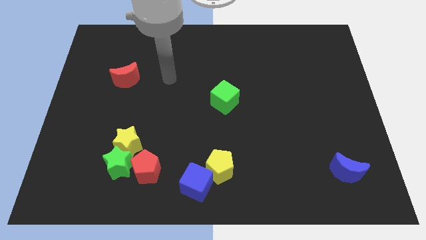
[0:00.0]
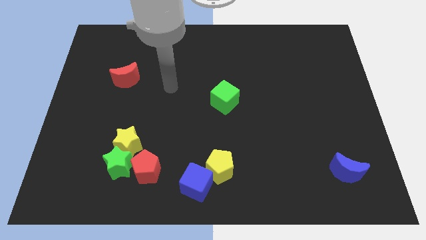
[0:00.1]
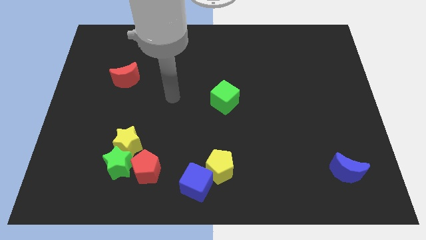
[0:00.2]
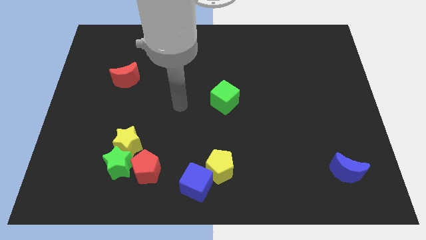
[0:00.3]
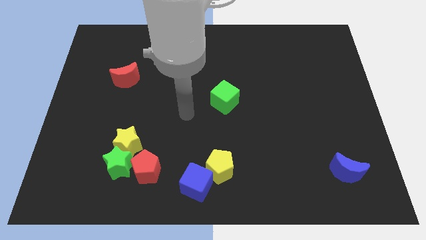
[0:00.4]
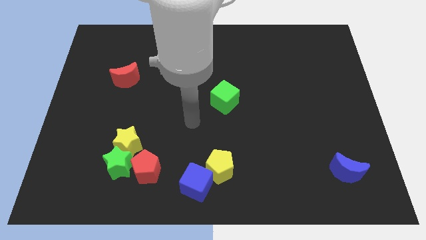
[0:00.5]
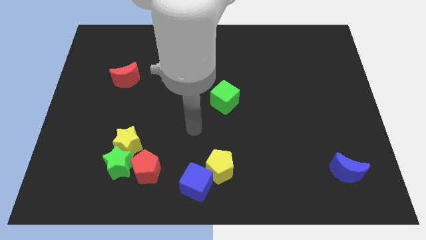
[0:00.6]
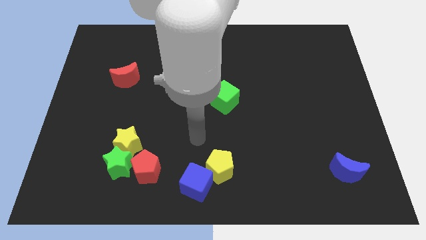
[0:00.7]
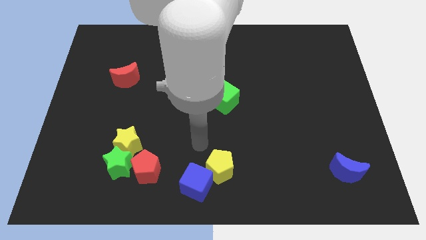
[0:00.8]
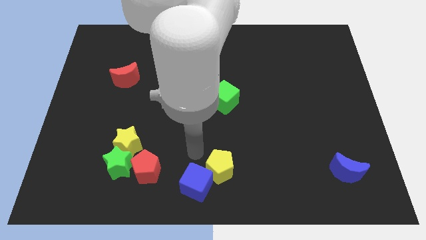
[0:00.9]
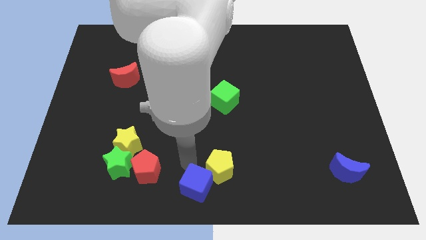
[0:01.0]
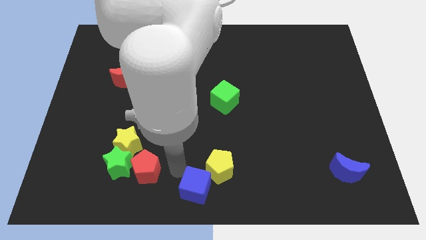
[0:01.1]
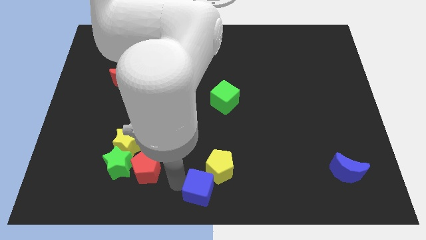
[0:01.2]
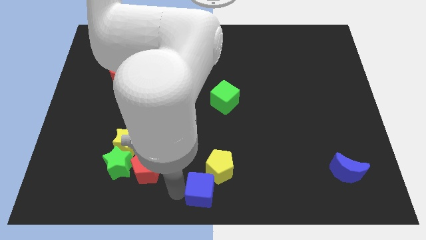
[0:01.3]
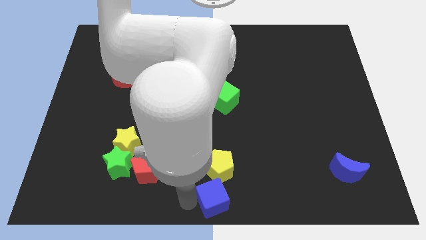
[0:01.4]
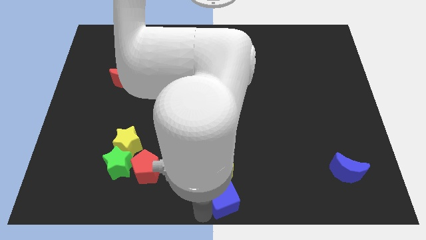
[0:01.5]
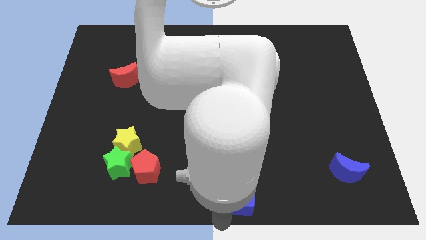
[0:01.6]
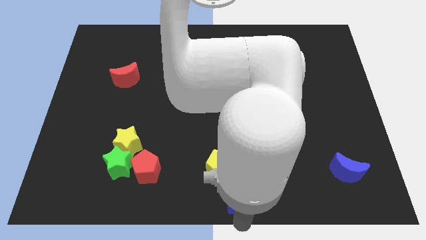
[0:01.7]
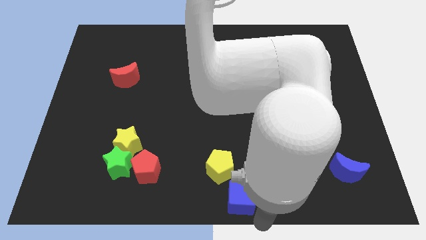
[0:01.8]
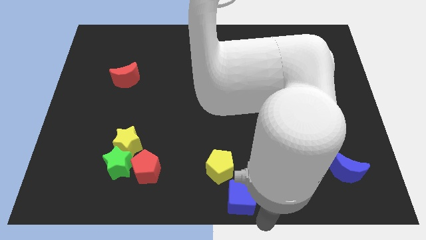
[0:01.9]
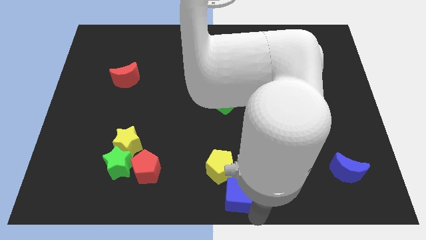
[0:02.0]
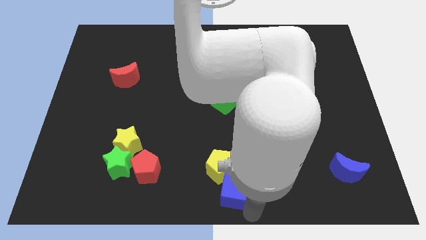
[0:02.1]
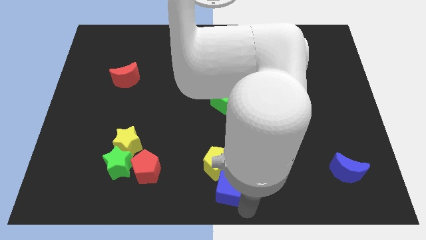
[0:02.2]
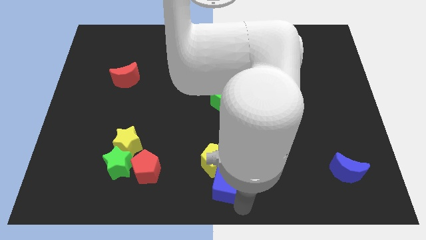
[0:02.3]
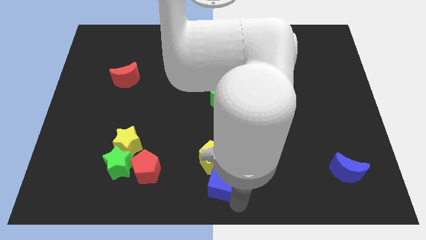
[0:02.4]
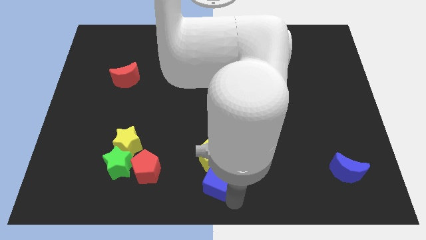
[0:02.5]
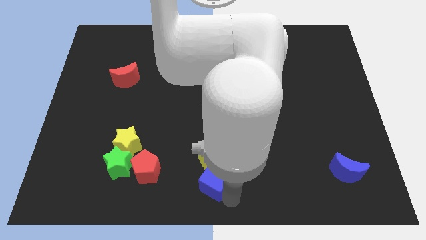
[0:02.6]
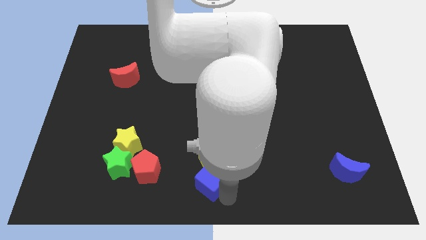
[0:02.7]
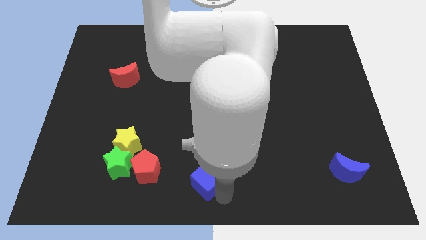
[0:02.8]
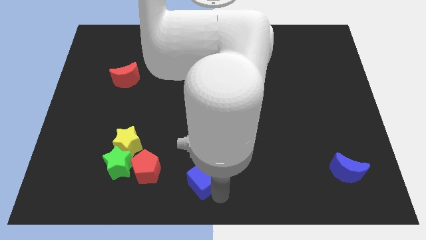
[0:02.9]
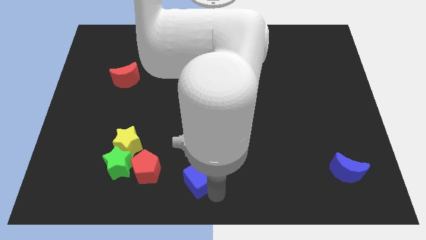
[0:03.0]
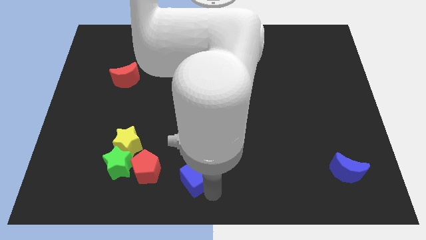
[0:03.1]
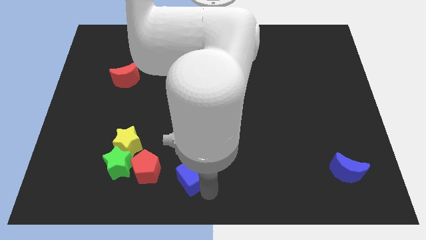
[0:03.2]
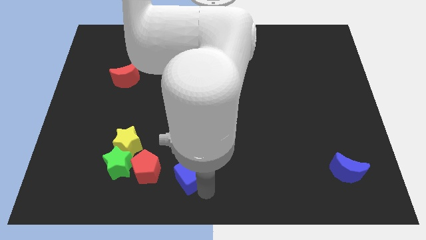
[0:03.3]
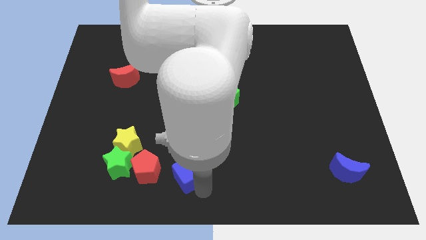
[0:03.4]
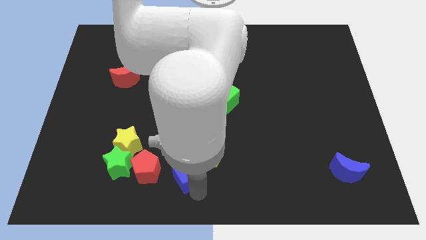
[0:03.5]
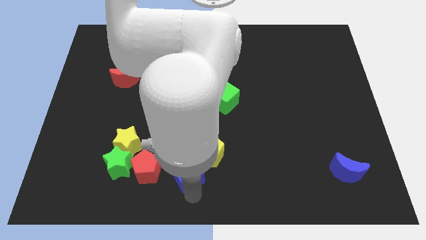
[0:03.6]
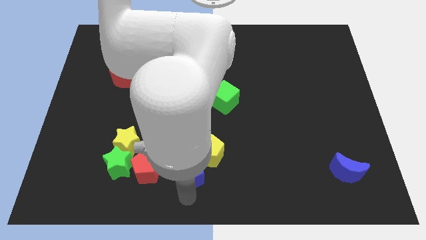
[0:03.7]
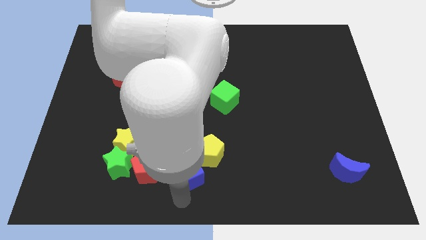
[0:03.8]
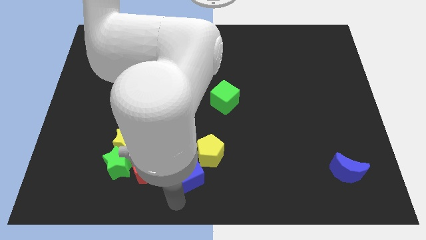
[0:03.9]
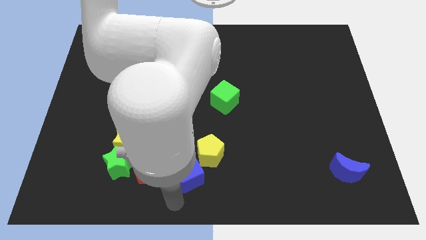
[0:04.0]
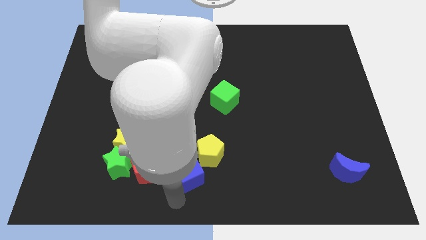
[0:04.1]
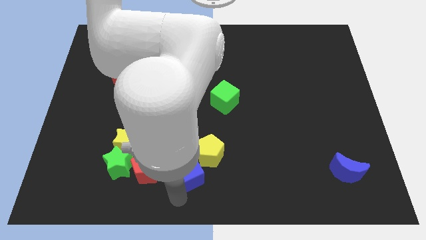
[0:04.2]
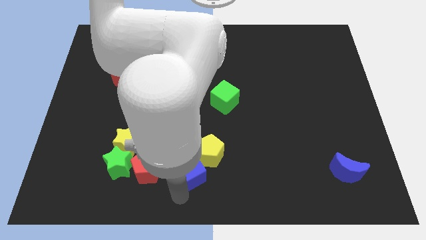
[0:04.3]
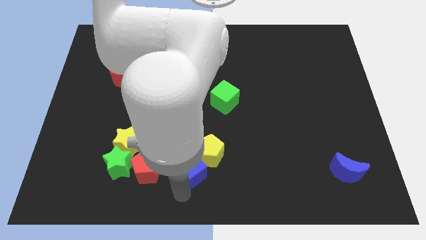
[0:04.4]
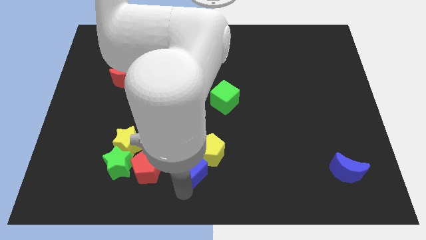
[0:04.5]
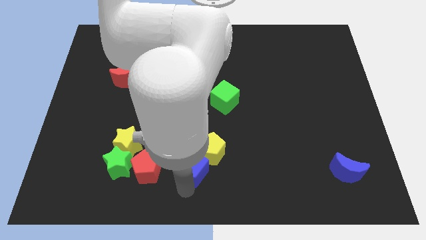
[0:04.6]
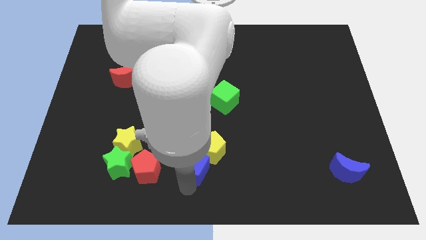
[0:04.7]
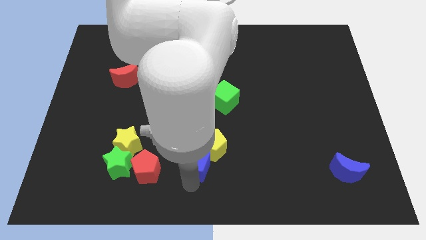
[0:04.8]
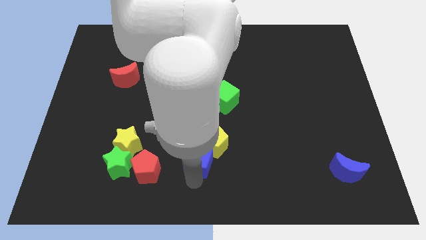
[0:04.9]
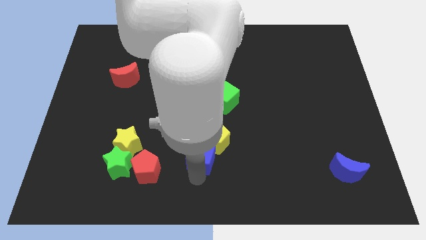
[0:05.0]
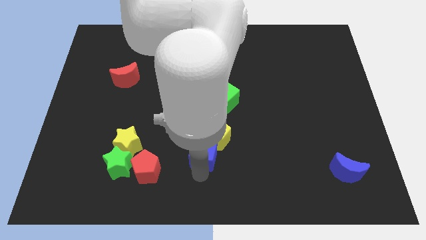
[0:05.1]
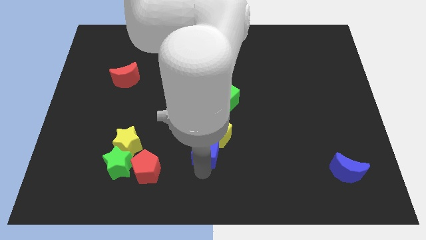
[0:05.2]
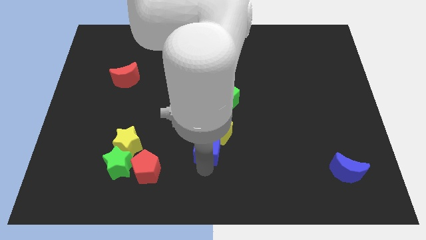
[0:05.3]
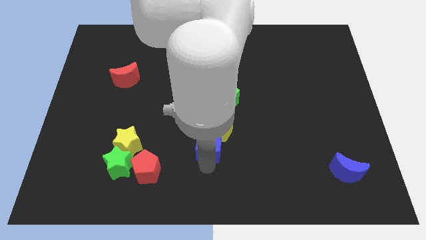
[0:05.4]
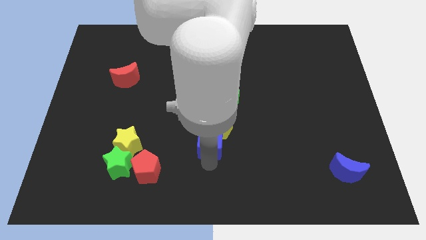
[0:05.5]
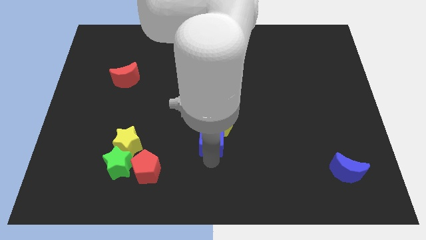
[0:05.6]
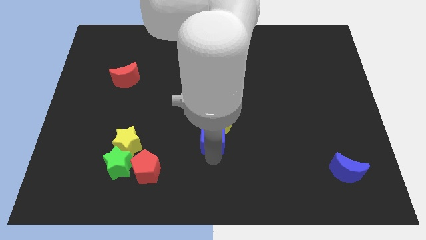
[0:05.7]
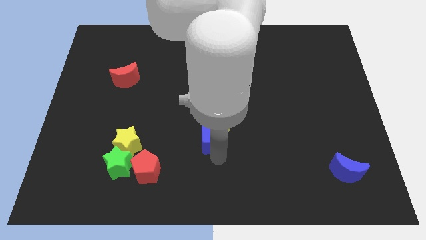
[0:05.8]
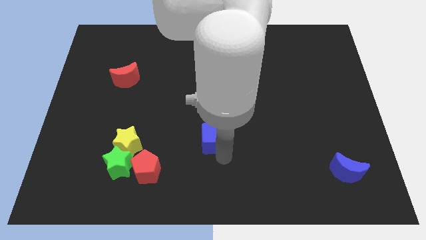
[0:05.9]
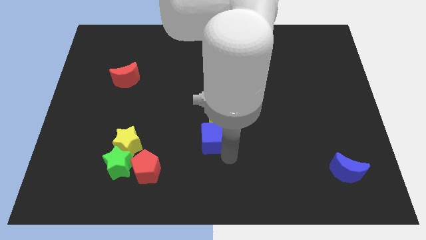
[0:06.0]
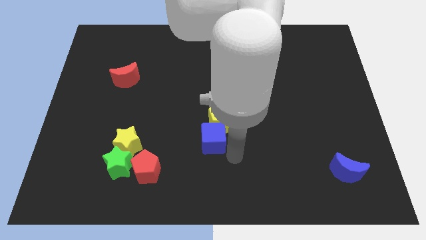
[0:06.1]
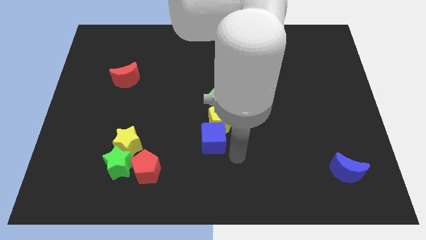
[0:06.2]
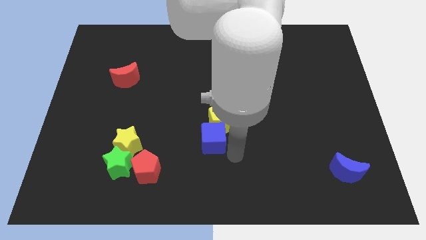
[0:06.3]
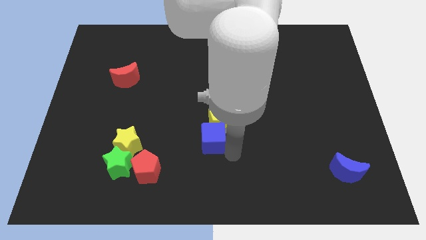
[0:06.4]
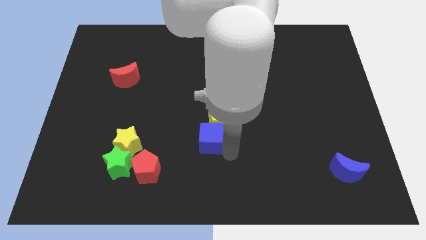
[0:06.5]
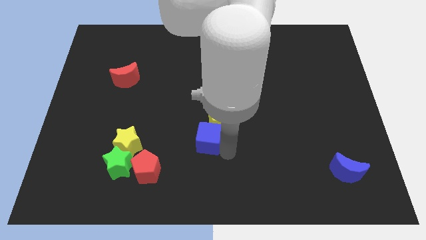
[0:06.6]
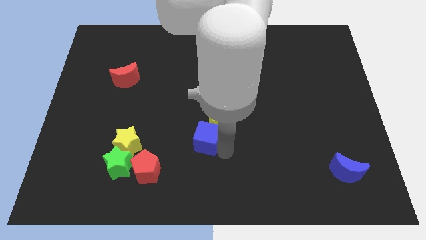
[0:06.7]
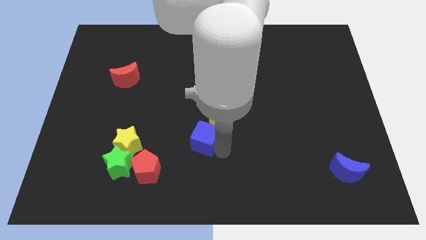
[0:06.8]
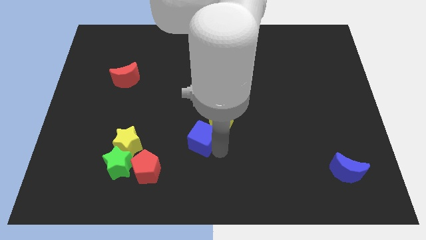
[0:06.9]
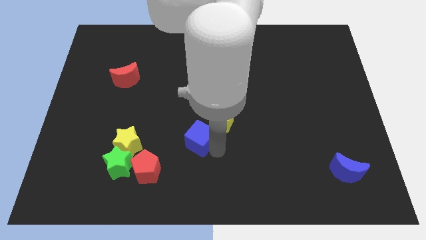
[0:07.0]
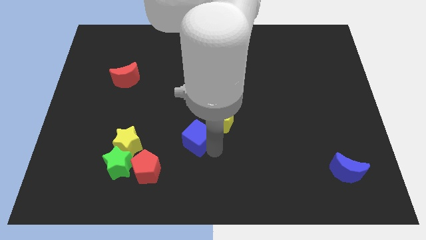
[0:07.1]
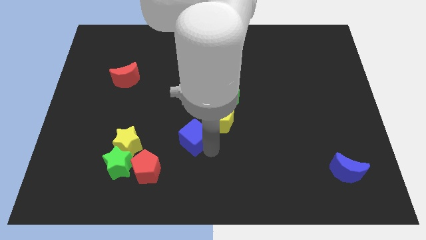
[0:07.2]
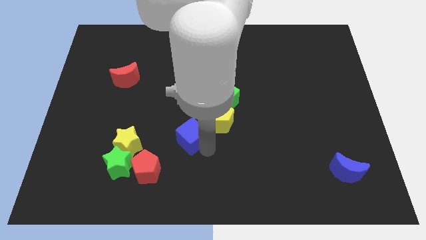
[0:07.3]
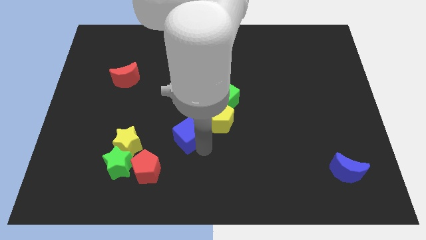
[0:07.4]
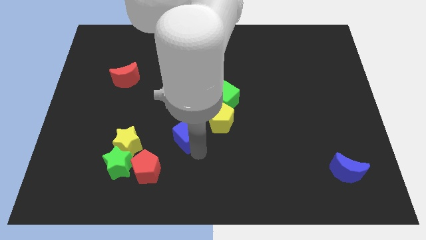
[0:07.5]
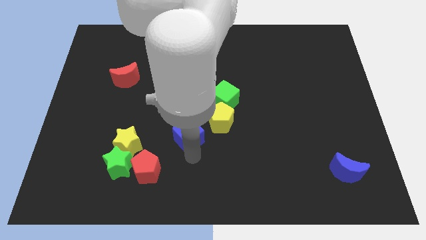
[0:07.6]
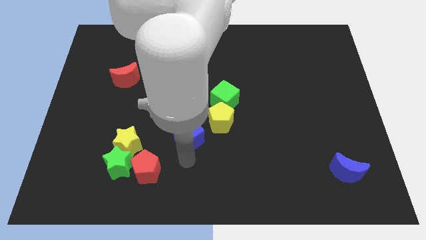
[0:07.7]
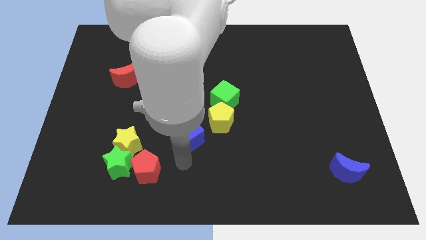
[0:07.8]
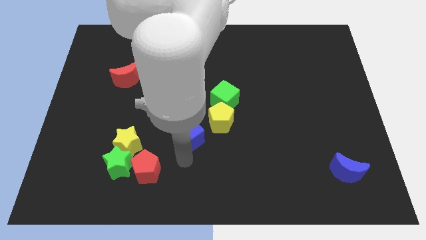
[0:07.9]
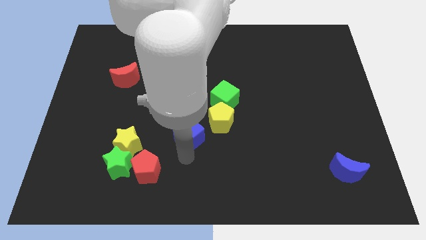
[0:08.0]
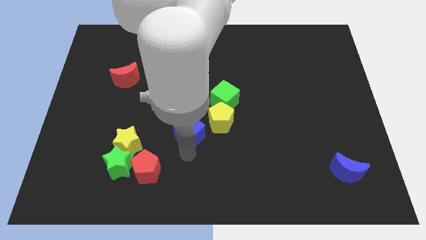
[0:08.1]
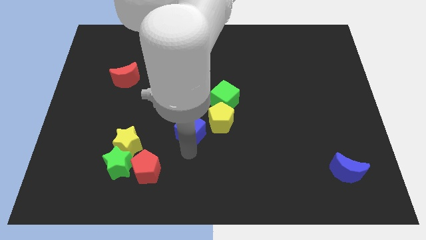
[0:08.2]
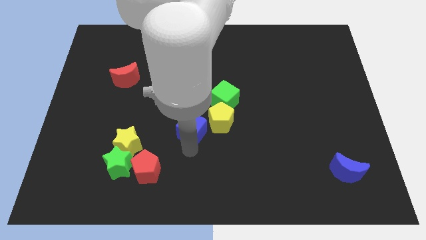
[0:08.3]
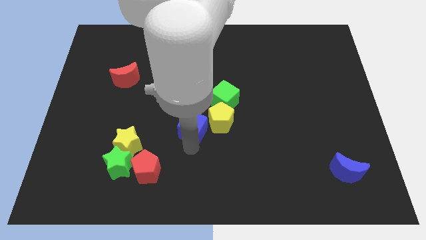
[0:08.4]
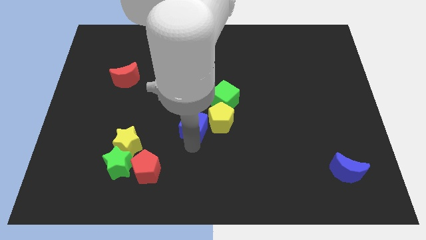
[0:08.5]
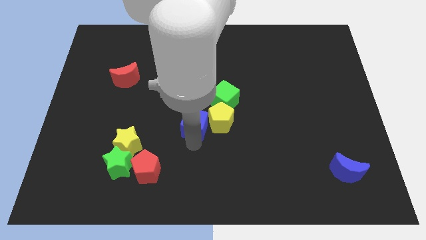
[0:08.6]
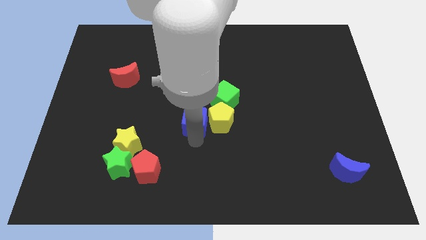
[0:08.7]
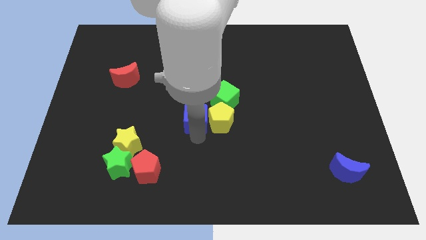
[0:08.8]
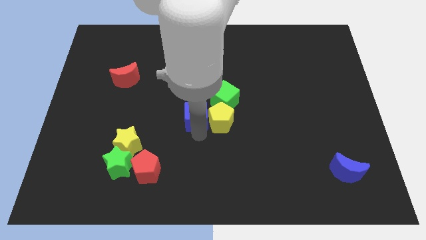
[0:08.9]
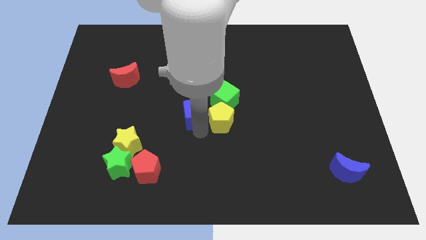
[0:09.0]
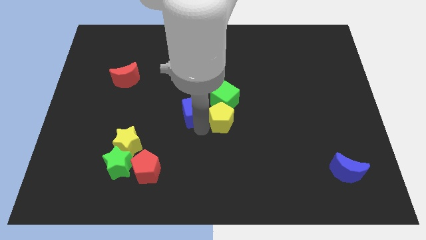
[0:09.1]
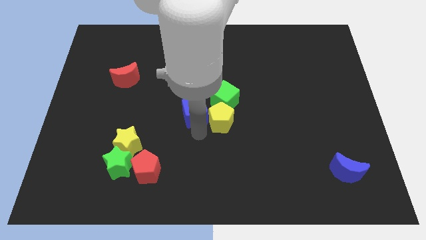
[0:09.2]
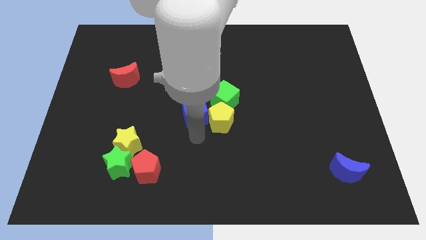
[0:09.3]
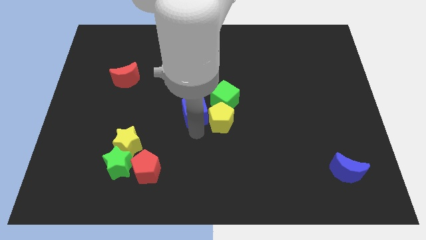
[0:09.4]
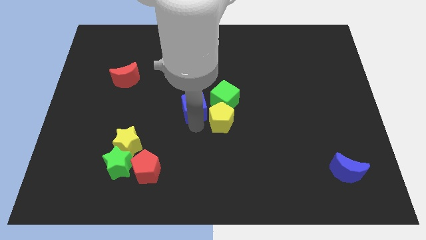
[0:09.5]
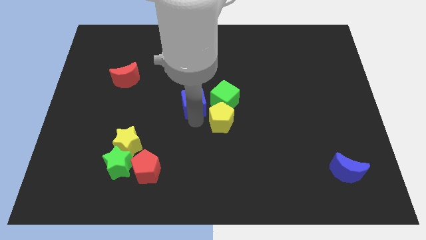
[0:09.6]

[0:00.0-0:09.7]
slide the blue cube up
